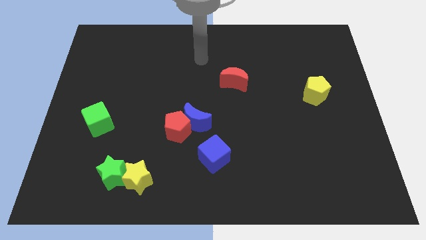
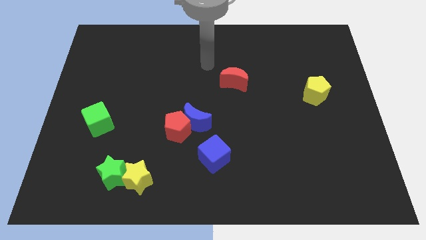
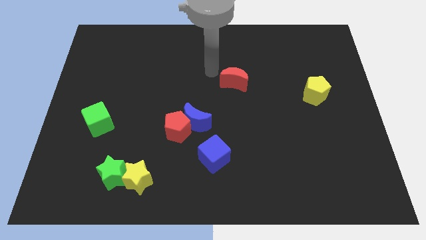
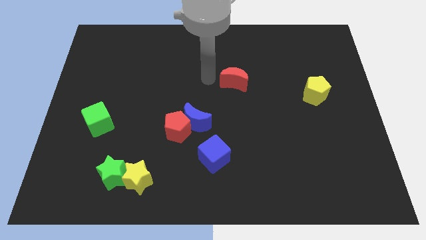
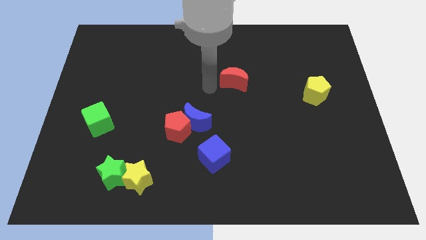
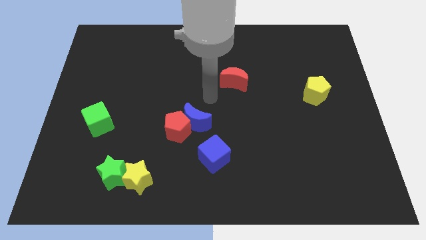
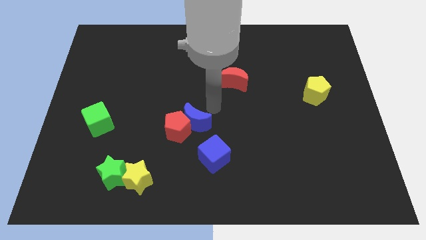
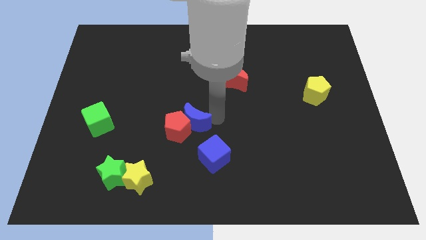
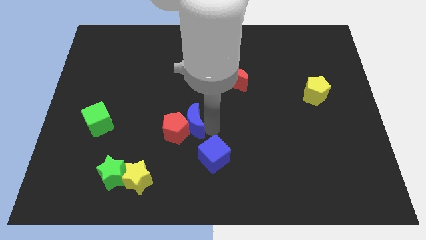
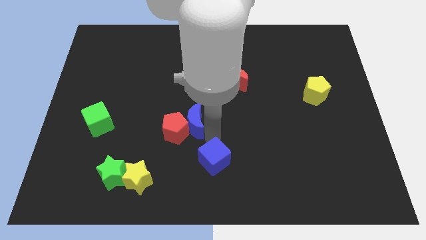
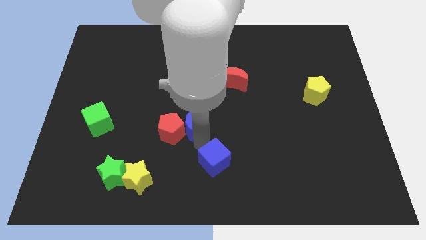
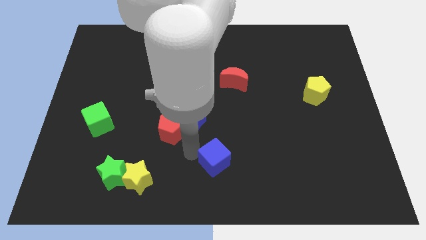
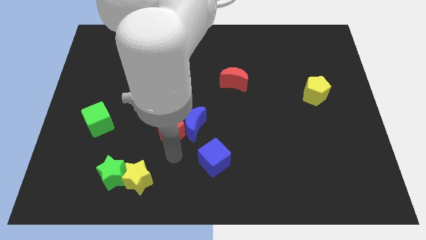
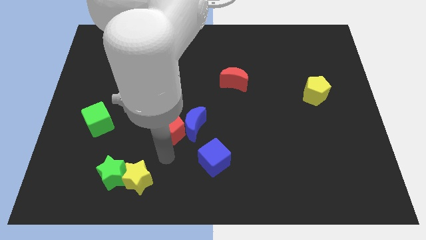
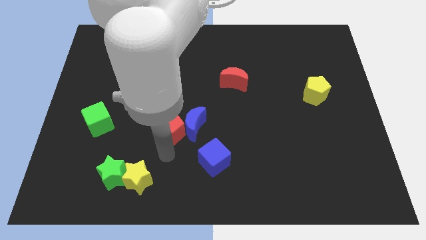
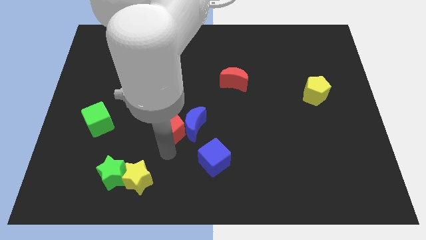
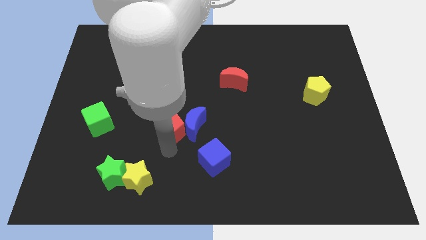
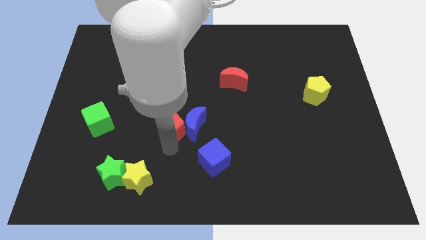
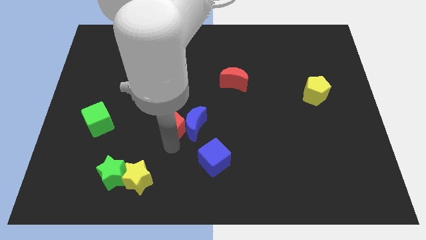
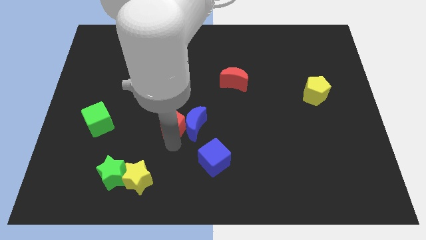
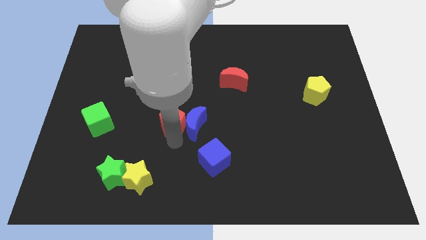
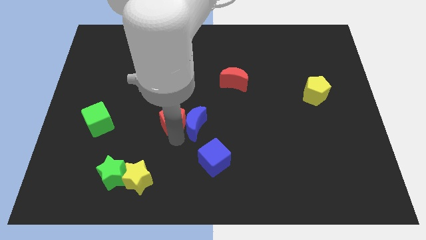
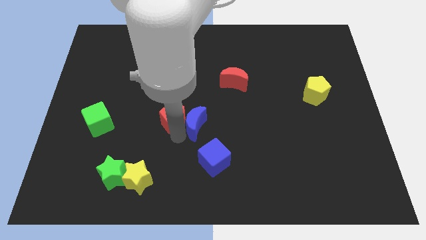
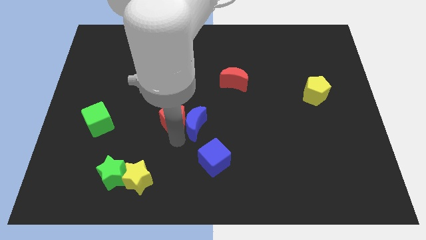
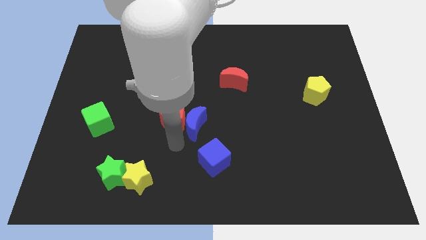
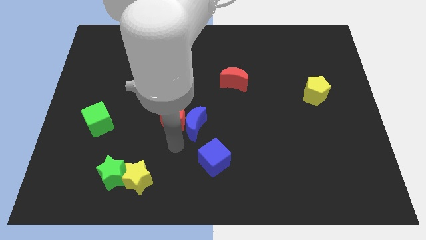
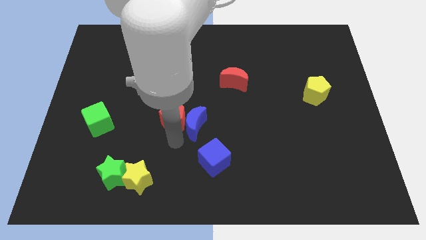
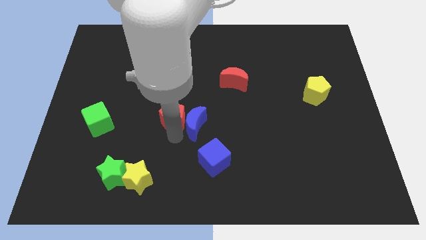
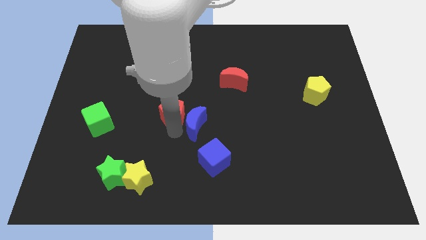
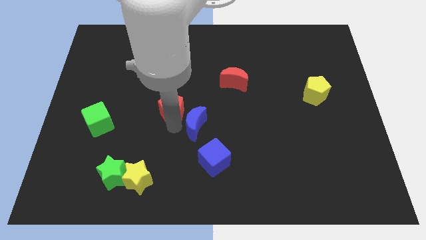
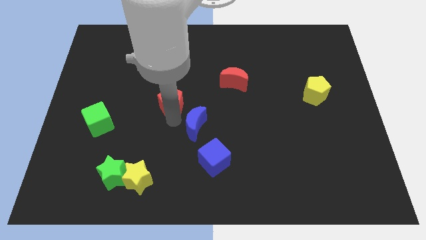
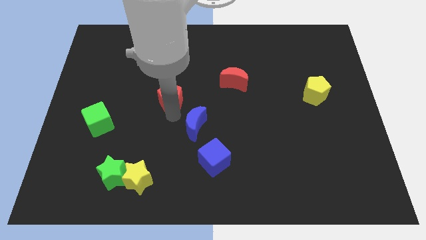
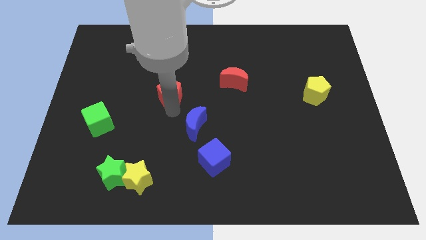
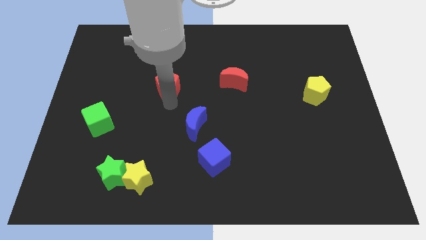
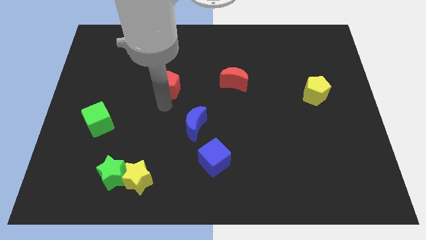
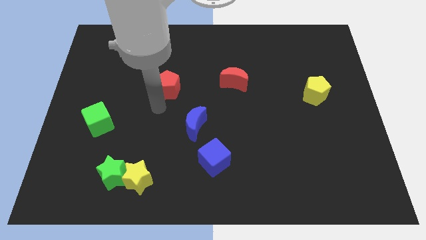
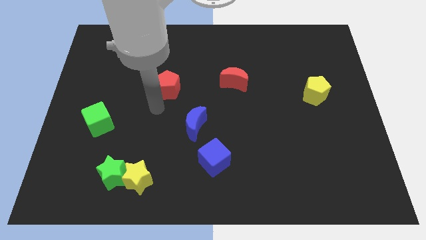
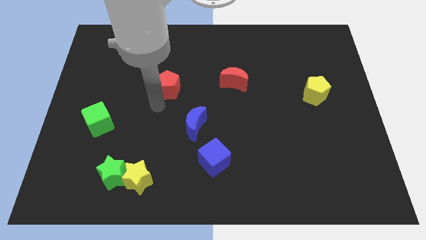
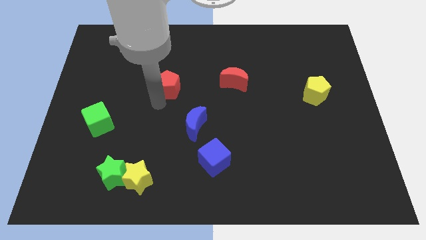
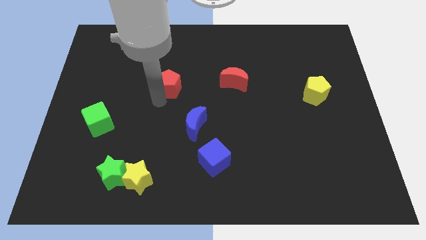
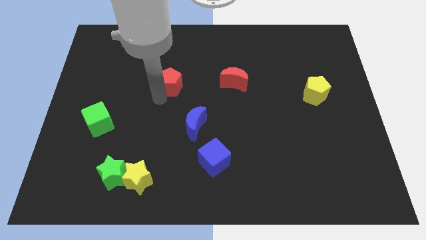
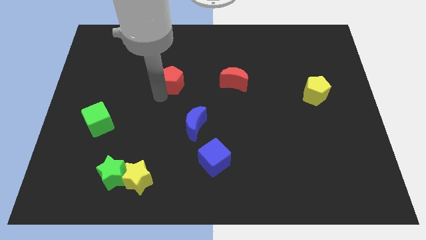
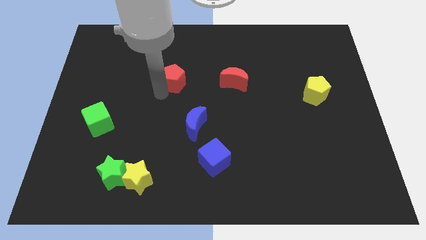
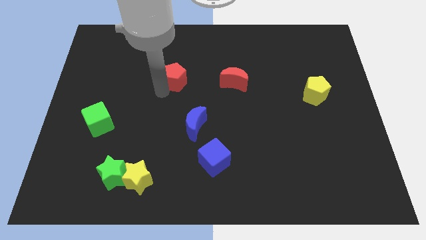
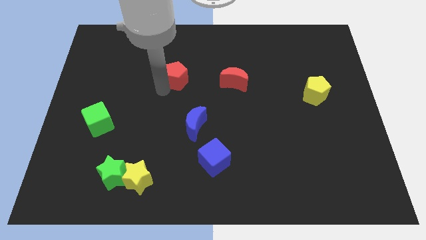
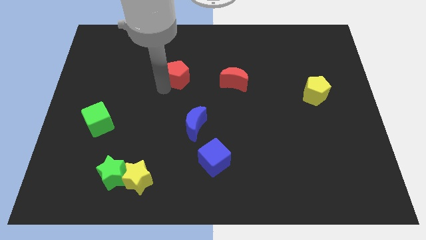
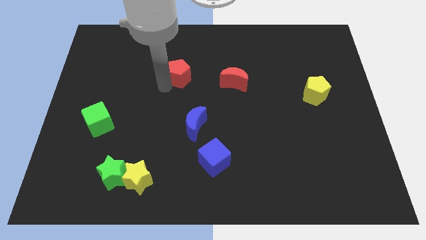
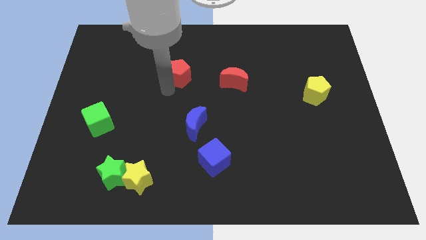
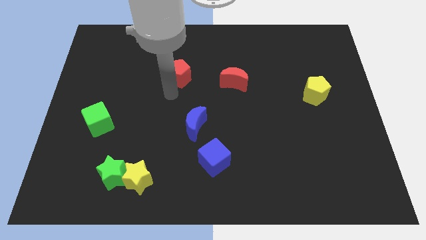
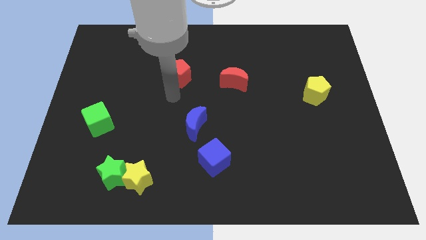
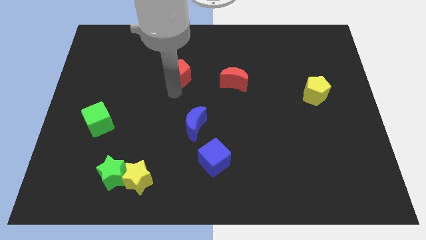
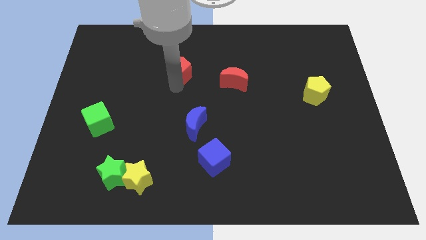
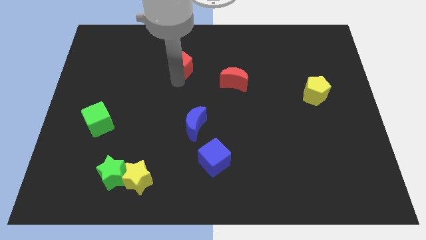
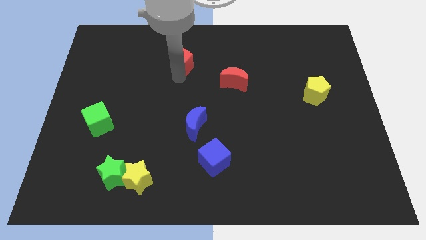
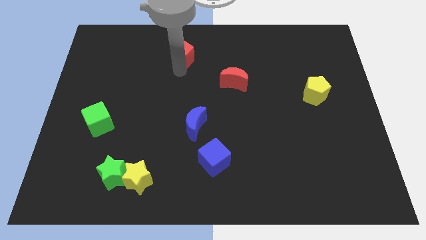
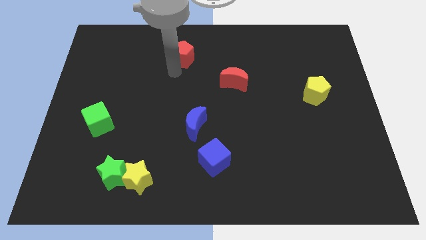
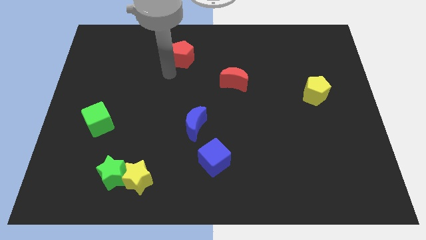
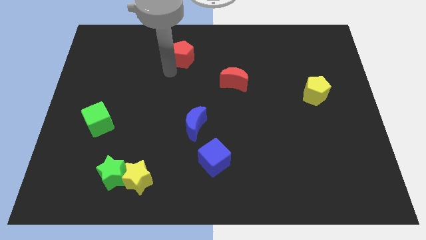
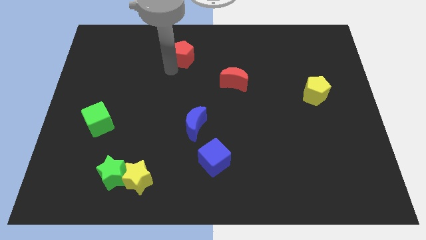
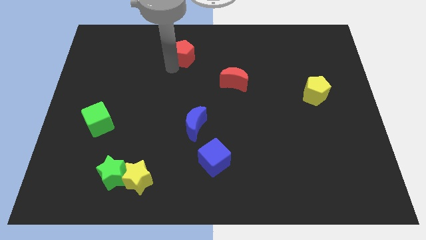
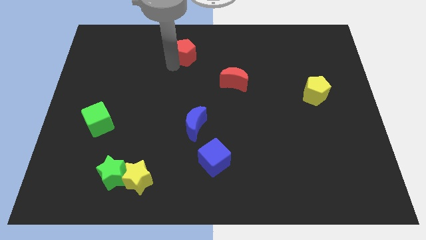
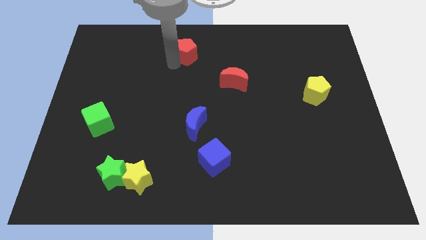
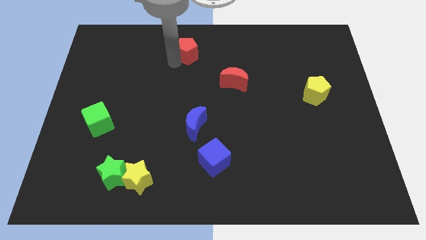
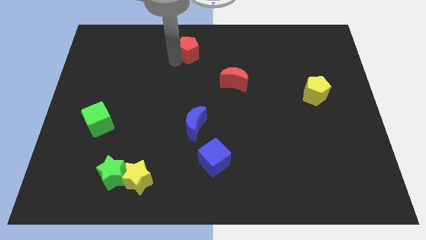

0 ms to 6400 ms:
push the red pentagon to the towards your base
